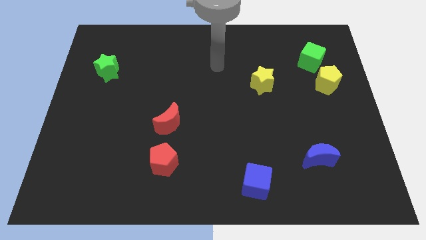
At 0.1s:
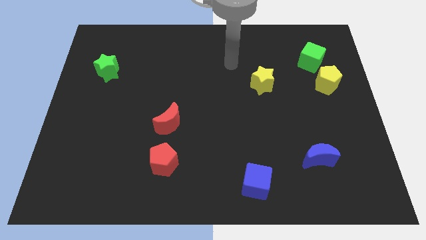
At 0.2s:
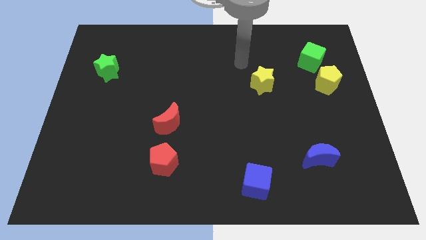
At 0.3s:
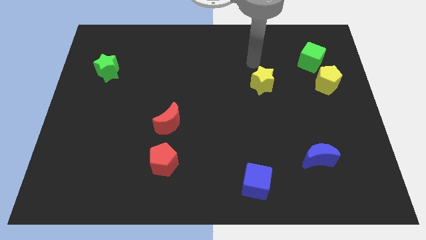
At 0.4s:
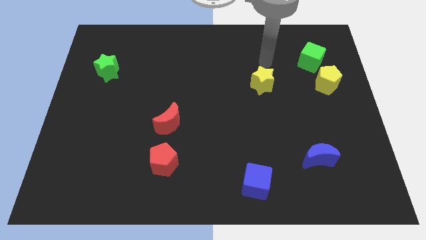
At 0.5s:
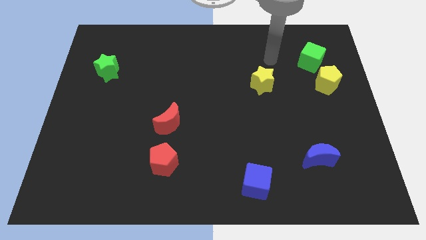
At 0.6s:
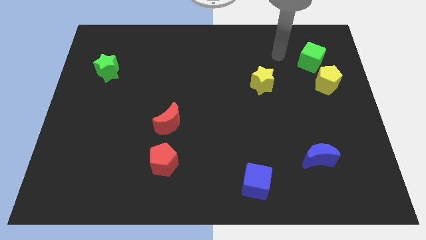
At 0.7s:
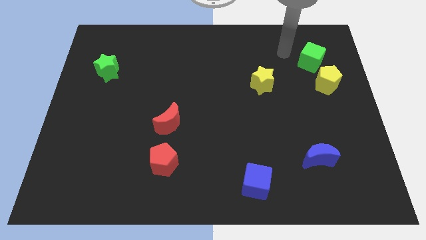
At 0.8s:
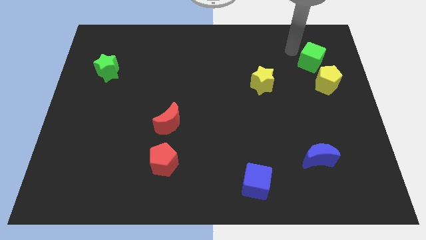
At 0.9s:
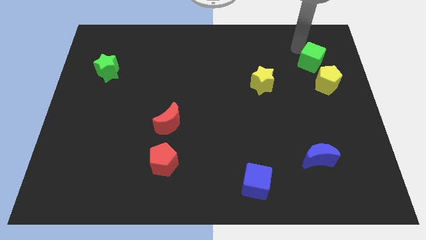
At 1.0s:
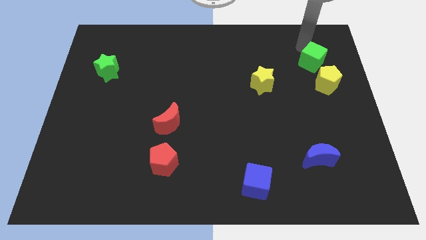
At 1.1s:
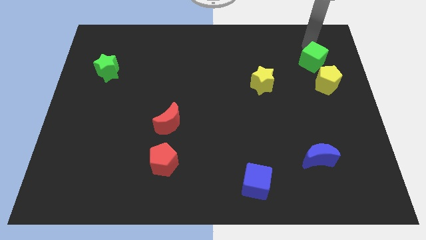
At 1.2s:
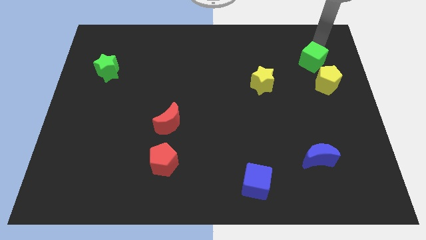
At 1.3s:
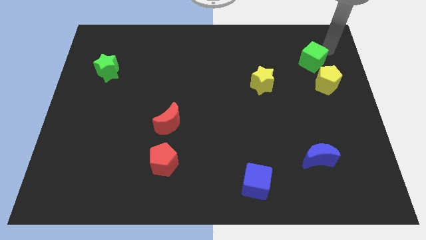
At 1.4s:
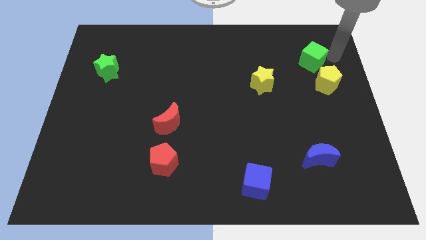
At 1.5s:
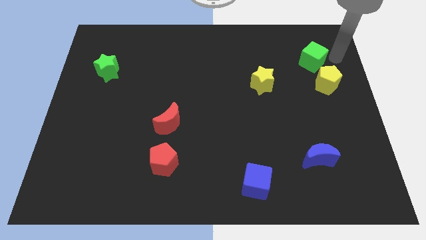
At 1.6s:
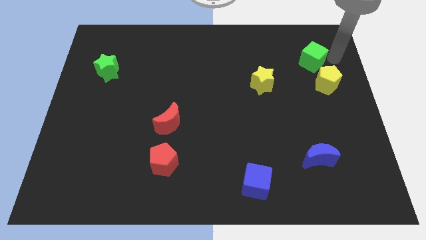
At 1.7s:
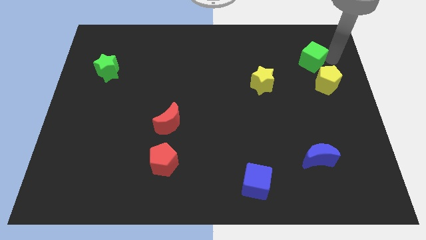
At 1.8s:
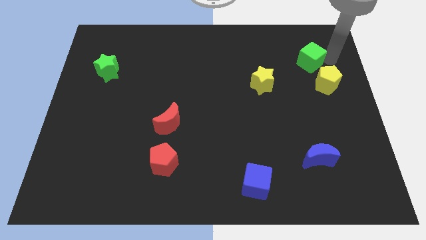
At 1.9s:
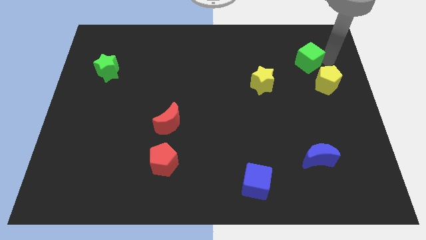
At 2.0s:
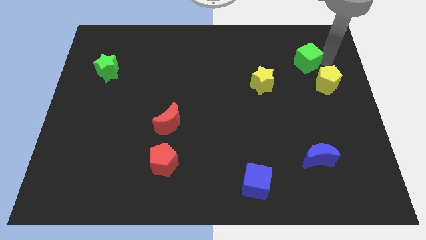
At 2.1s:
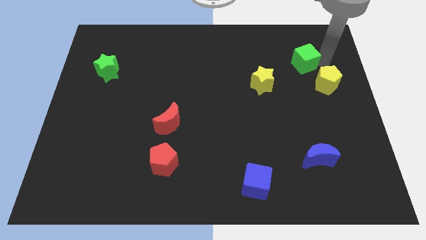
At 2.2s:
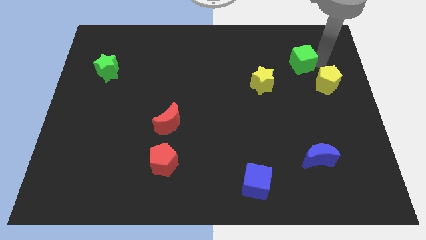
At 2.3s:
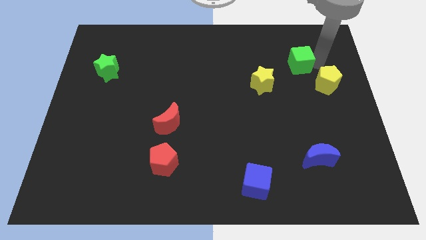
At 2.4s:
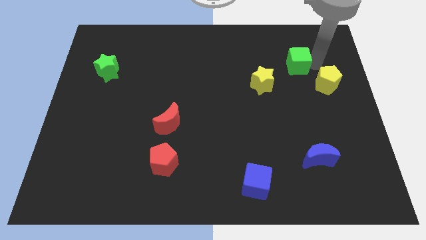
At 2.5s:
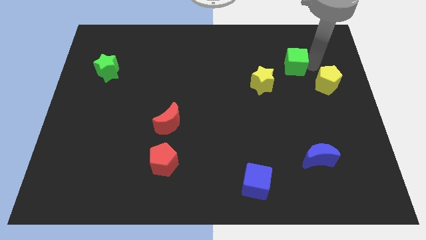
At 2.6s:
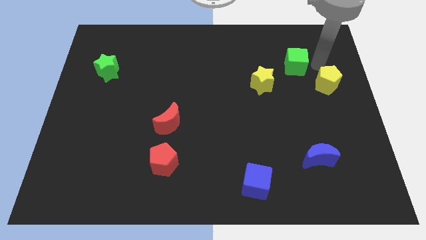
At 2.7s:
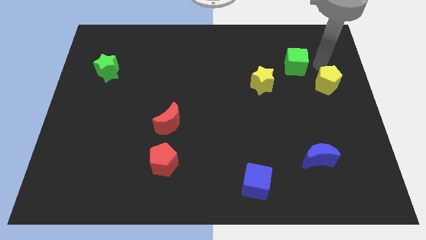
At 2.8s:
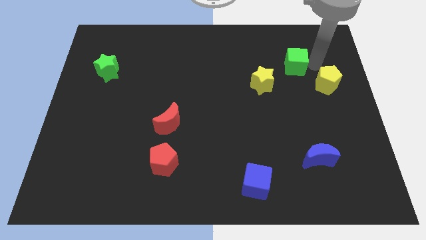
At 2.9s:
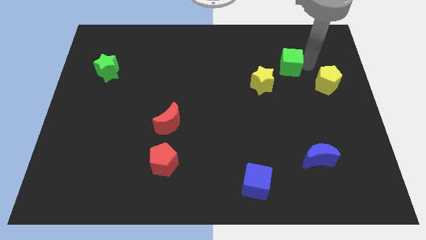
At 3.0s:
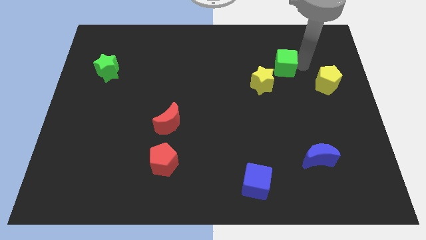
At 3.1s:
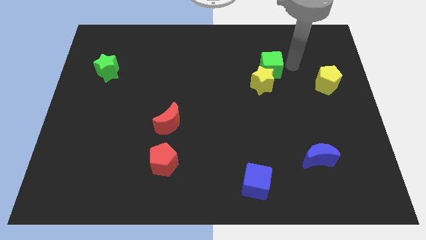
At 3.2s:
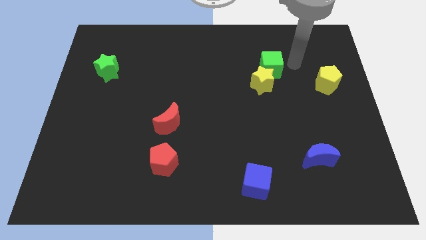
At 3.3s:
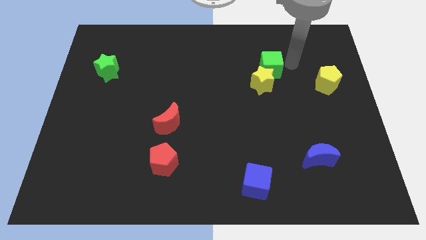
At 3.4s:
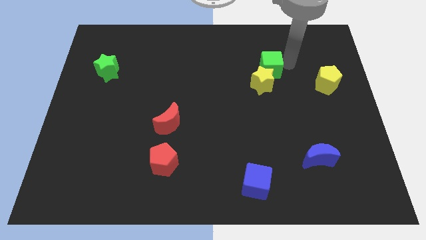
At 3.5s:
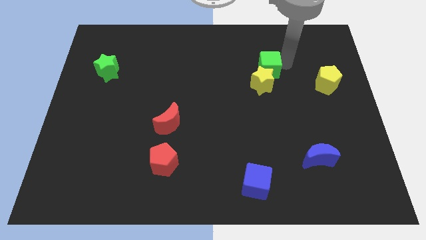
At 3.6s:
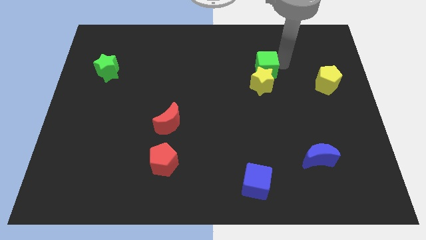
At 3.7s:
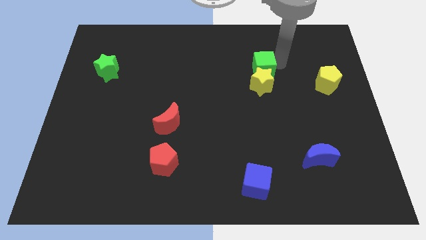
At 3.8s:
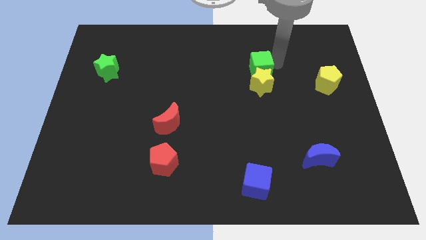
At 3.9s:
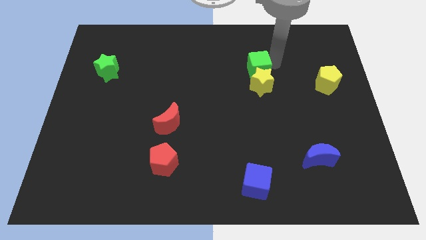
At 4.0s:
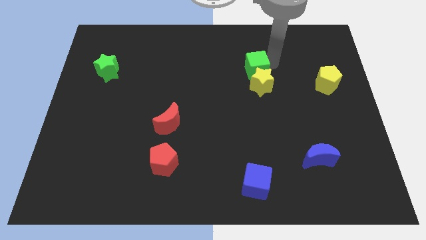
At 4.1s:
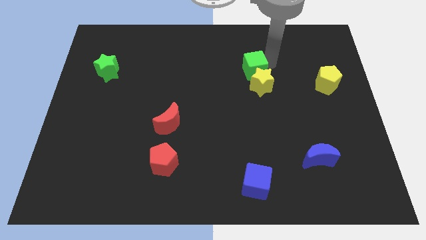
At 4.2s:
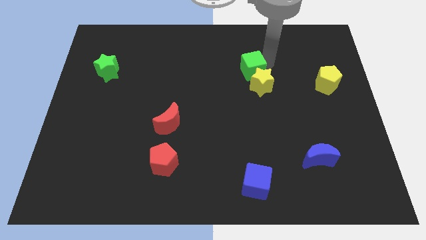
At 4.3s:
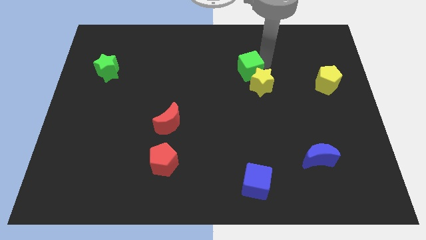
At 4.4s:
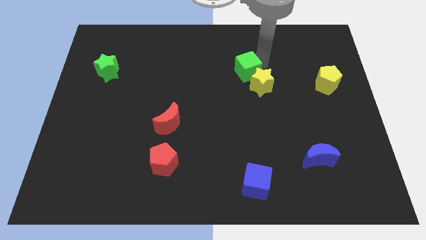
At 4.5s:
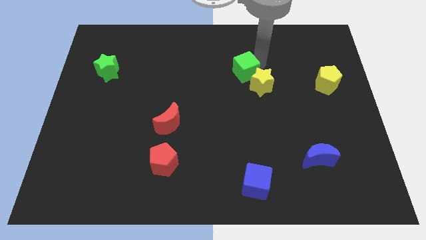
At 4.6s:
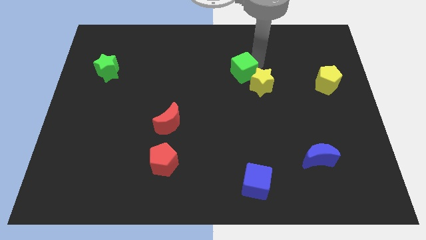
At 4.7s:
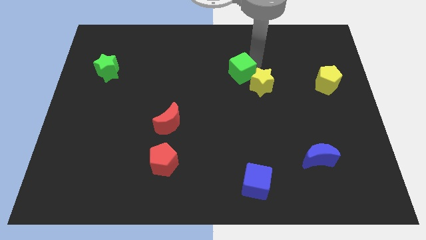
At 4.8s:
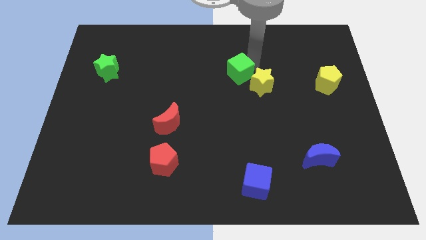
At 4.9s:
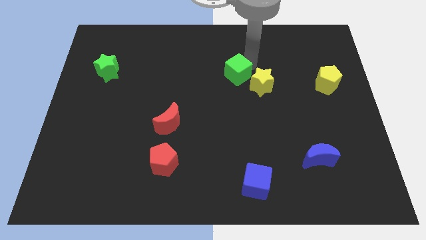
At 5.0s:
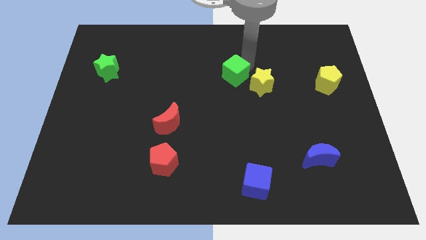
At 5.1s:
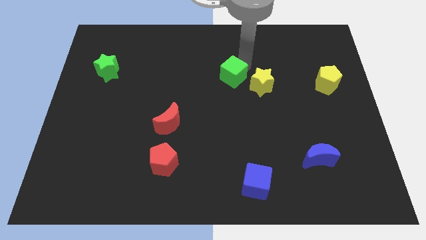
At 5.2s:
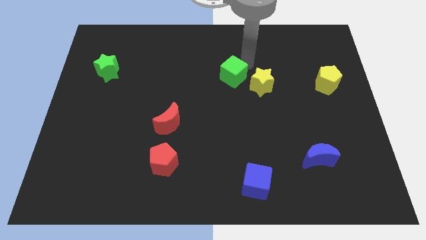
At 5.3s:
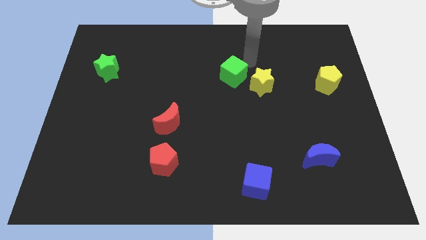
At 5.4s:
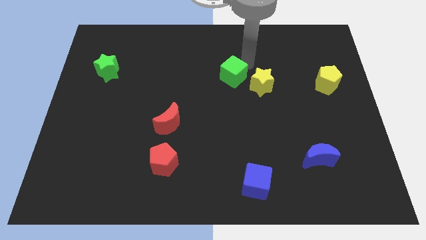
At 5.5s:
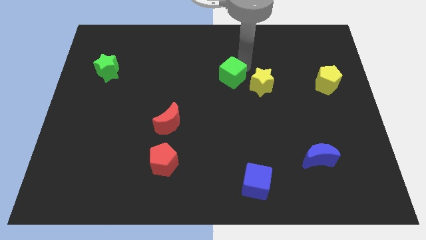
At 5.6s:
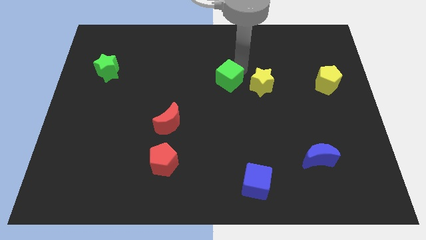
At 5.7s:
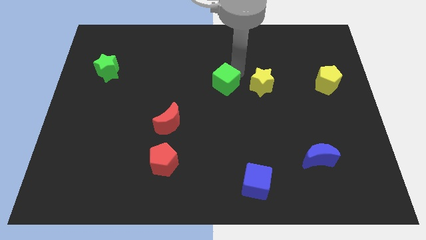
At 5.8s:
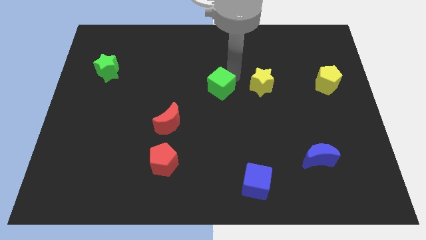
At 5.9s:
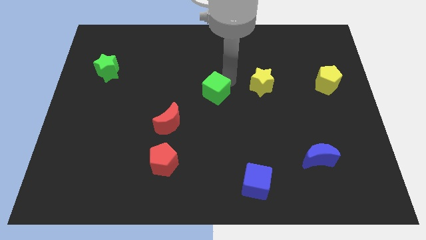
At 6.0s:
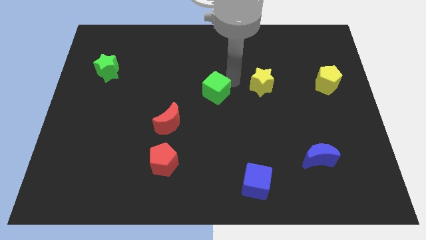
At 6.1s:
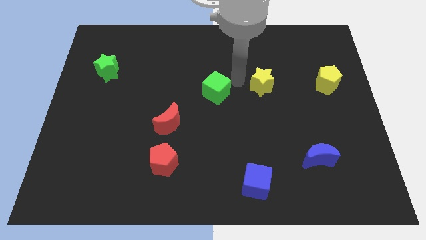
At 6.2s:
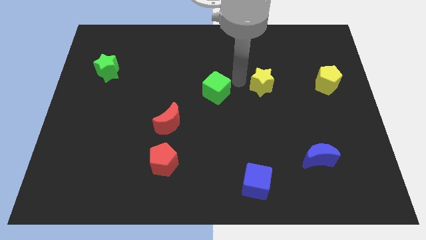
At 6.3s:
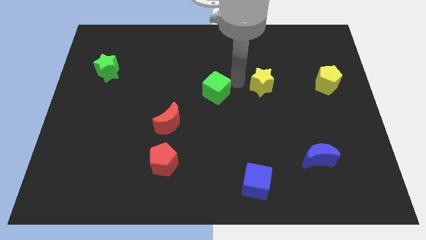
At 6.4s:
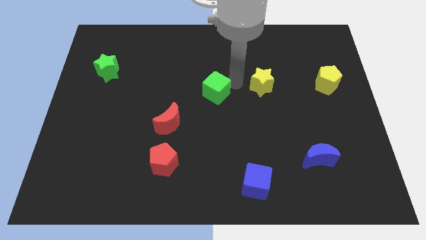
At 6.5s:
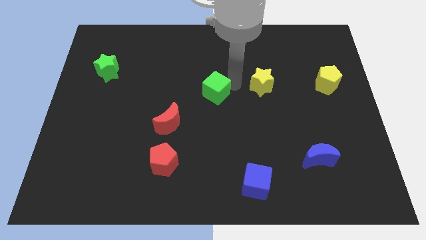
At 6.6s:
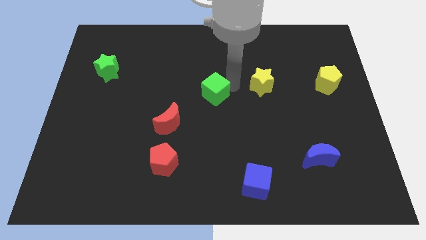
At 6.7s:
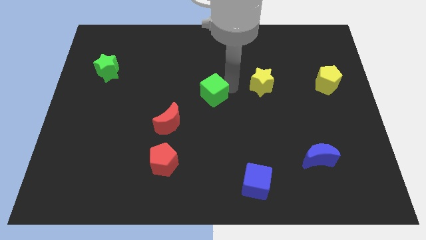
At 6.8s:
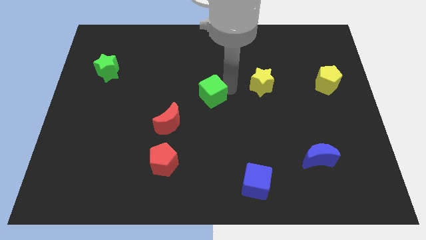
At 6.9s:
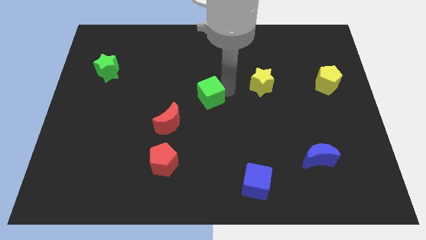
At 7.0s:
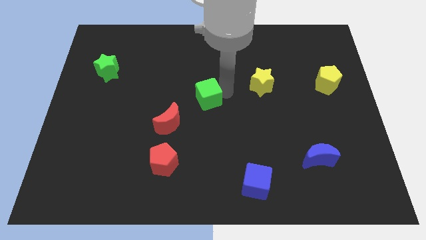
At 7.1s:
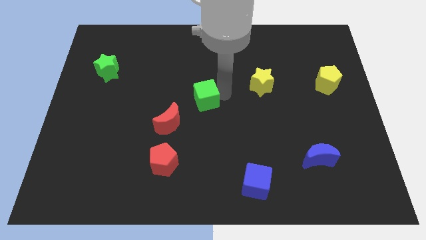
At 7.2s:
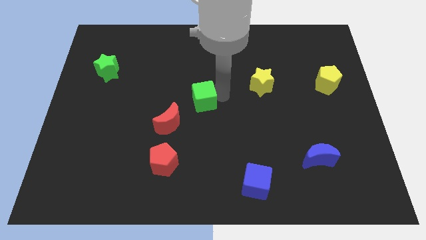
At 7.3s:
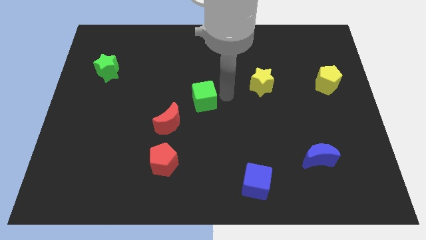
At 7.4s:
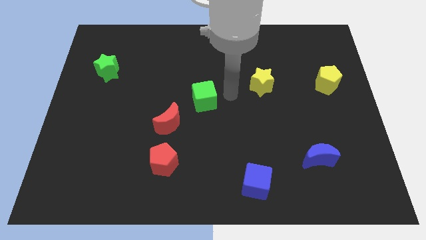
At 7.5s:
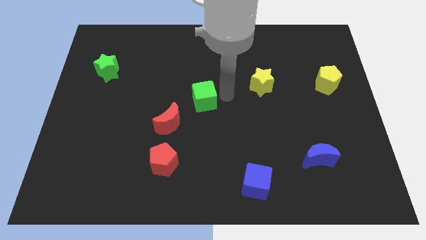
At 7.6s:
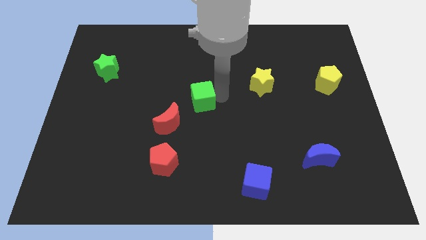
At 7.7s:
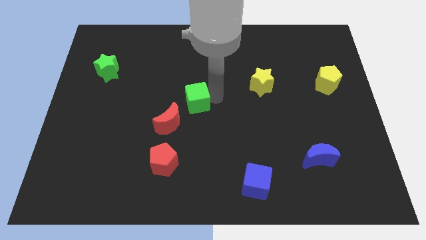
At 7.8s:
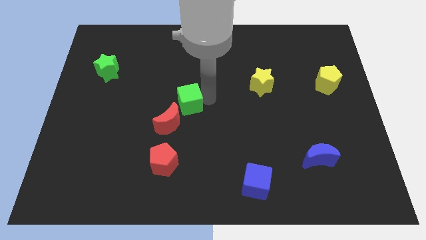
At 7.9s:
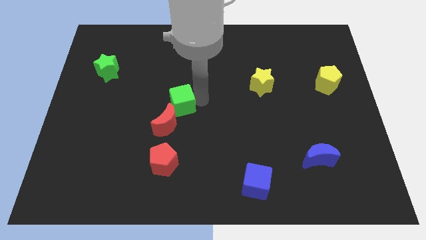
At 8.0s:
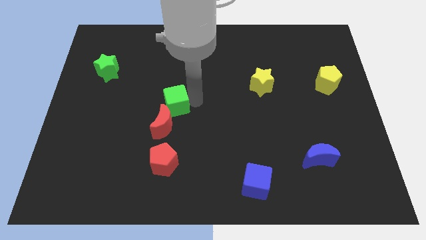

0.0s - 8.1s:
put the green cube to the top side of the red pentagon
